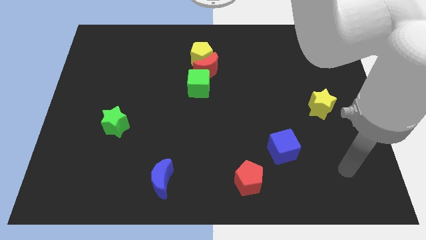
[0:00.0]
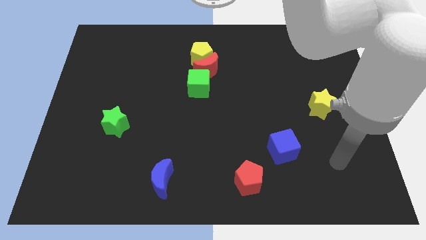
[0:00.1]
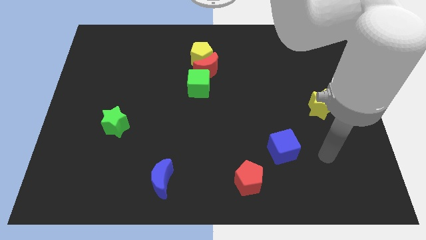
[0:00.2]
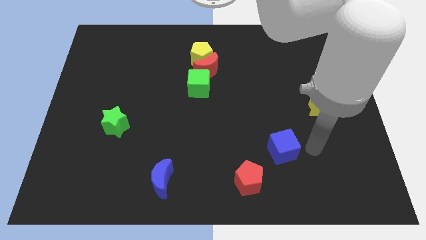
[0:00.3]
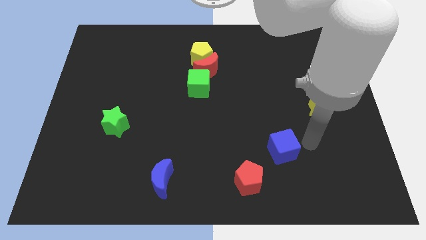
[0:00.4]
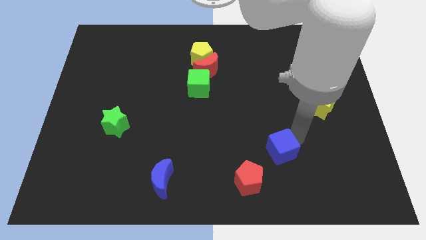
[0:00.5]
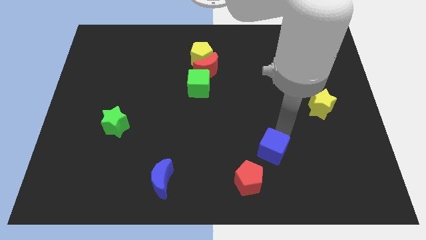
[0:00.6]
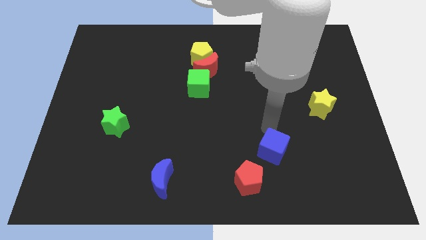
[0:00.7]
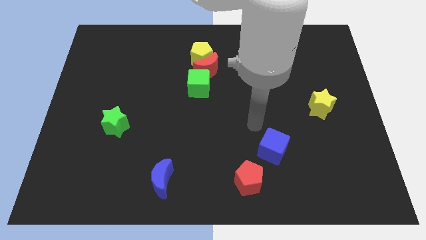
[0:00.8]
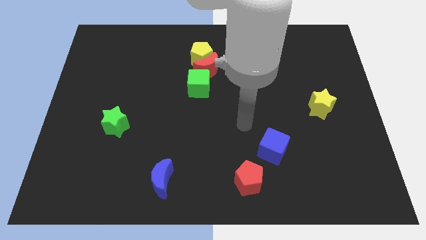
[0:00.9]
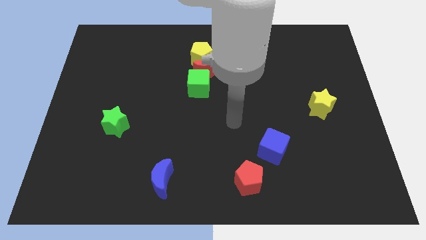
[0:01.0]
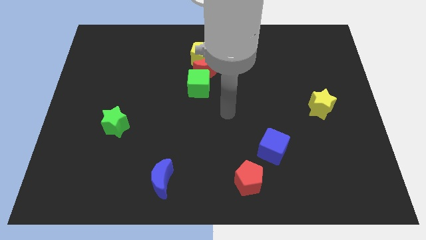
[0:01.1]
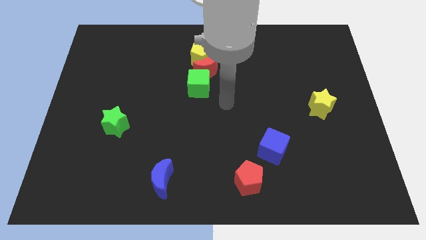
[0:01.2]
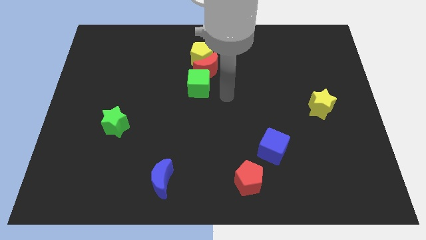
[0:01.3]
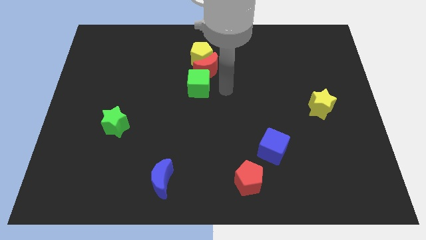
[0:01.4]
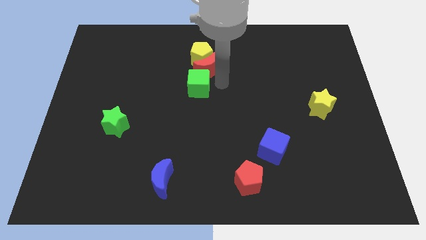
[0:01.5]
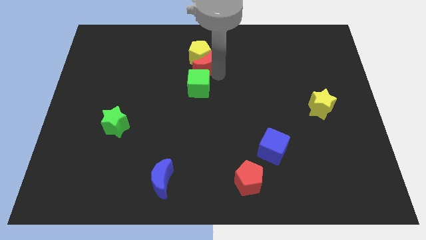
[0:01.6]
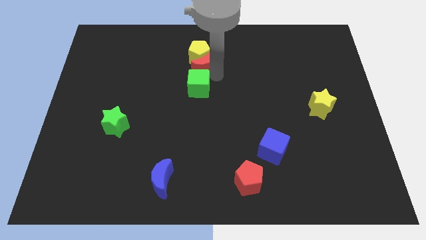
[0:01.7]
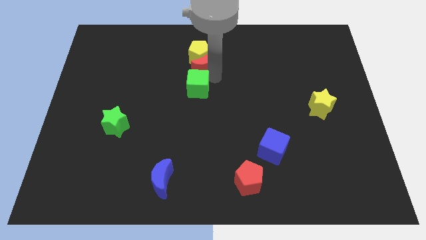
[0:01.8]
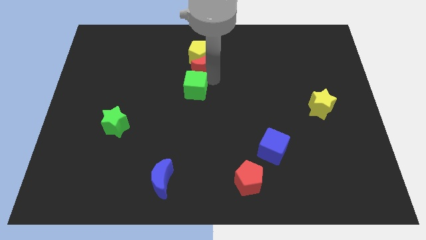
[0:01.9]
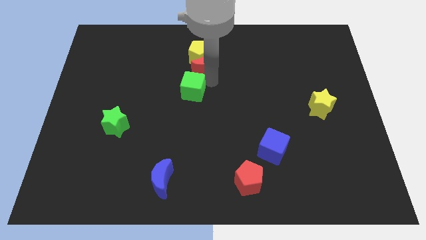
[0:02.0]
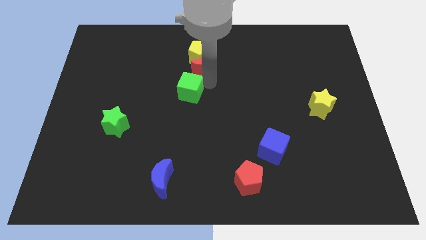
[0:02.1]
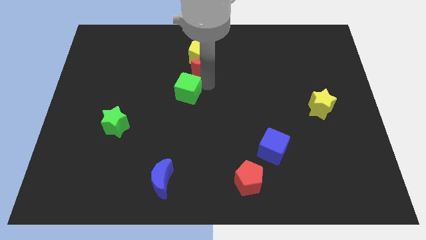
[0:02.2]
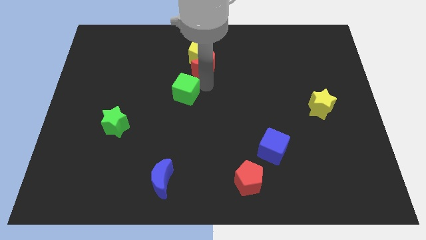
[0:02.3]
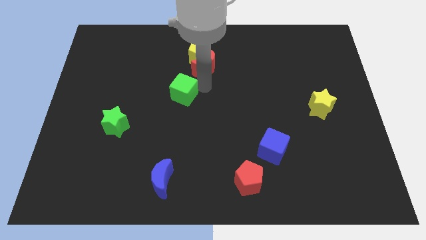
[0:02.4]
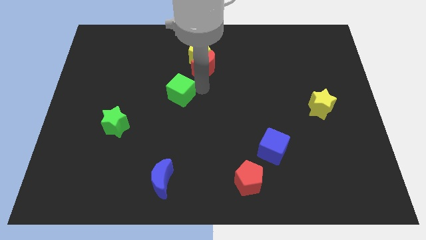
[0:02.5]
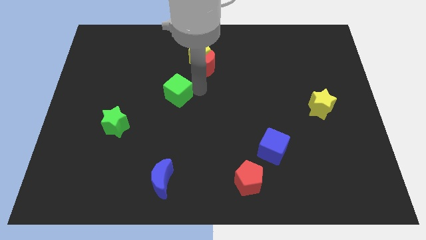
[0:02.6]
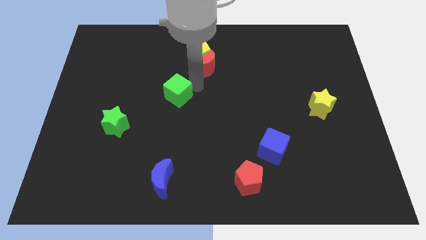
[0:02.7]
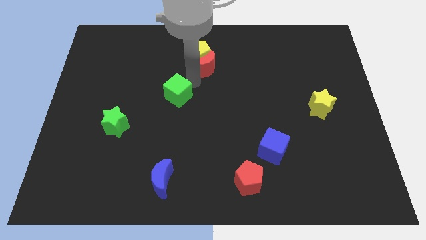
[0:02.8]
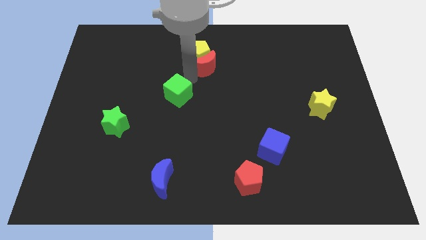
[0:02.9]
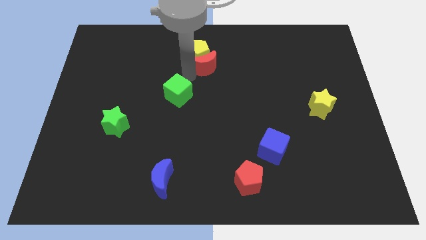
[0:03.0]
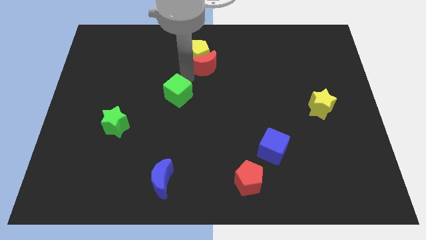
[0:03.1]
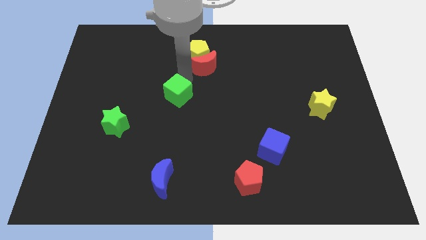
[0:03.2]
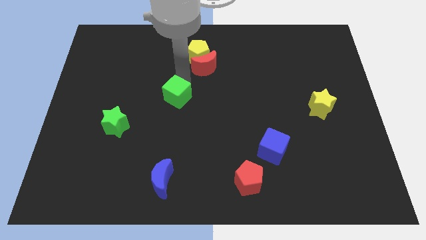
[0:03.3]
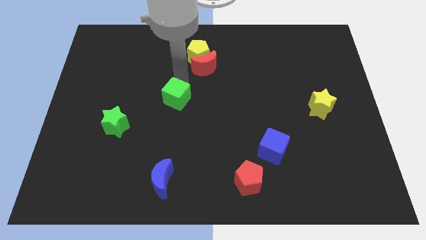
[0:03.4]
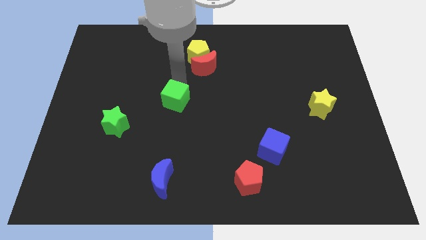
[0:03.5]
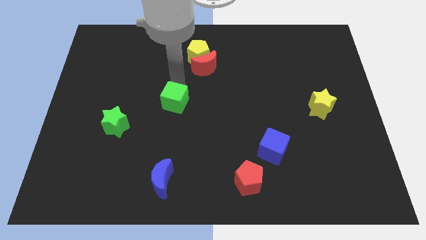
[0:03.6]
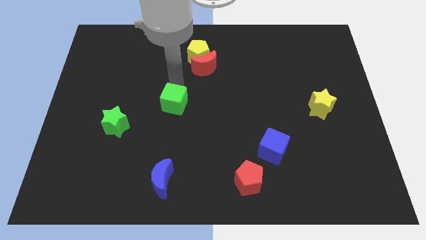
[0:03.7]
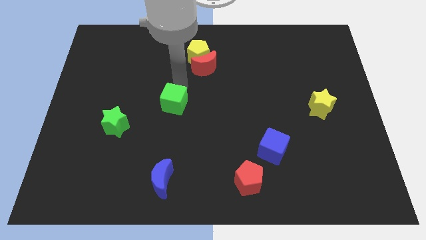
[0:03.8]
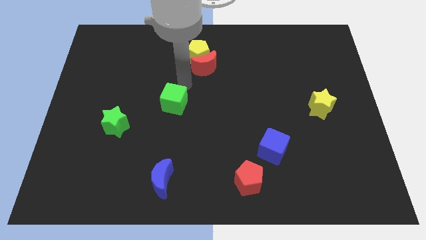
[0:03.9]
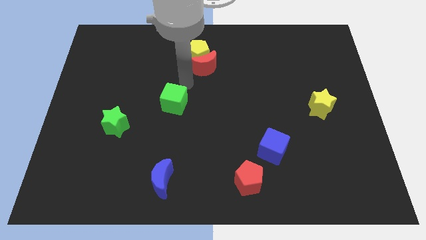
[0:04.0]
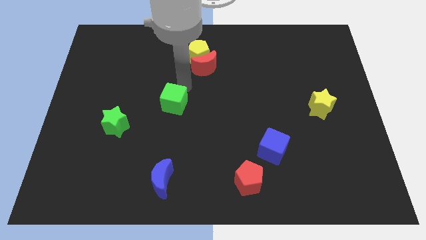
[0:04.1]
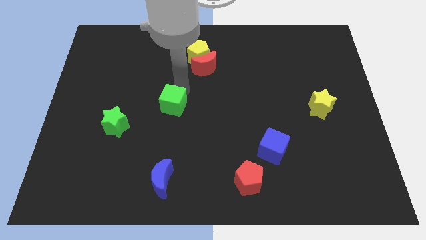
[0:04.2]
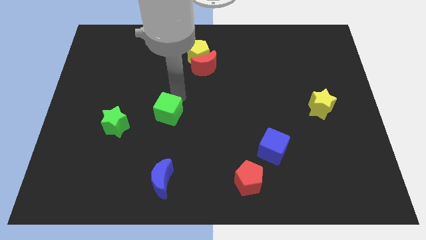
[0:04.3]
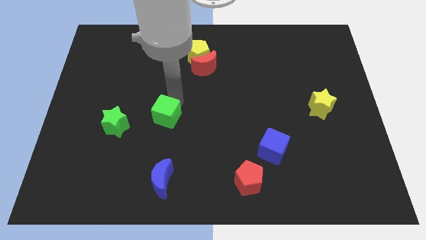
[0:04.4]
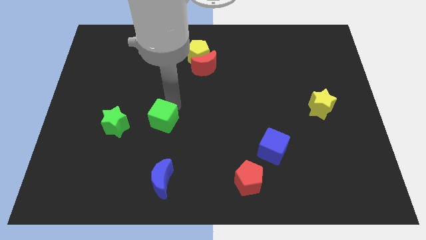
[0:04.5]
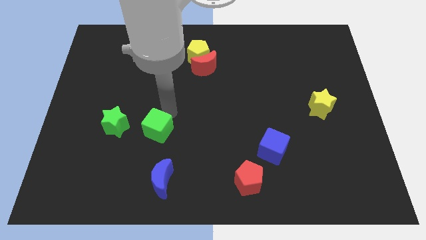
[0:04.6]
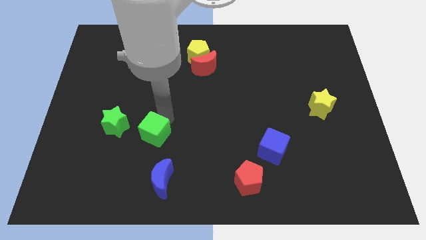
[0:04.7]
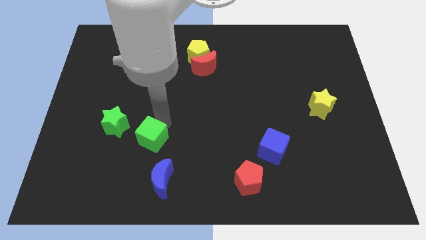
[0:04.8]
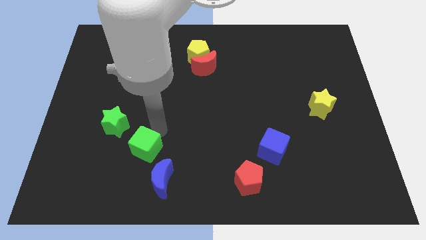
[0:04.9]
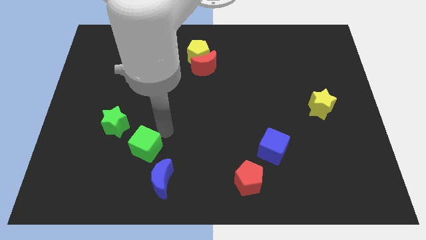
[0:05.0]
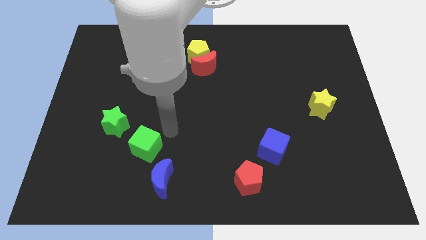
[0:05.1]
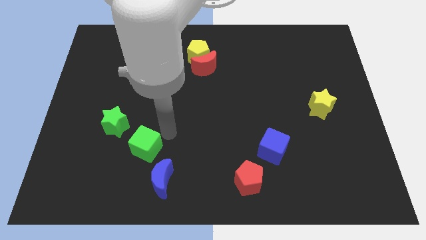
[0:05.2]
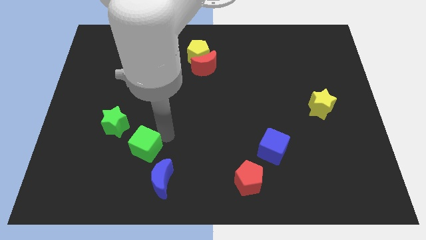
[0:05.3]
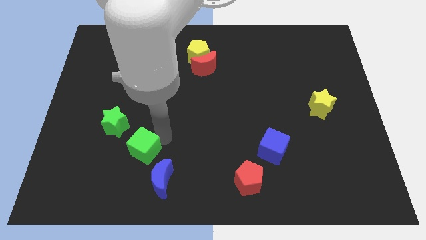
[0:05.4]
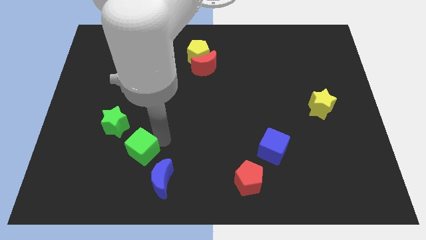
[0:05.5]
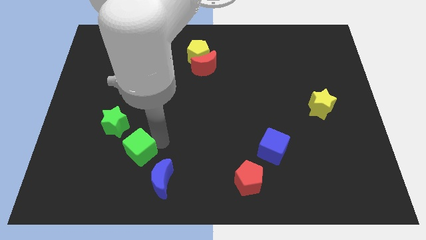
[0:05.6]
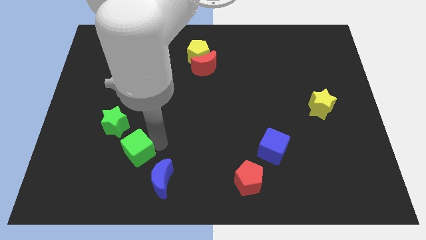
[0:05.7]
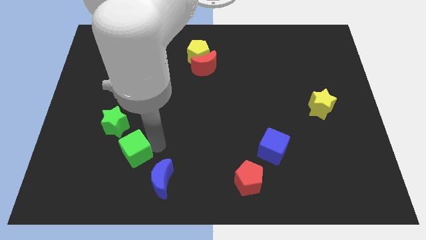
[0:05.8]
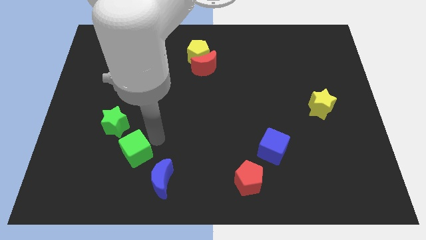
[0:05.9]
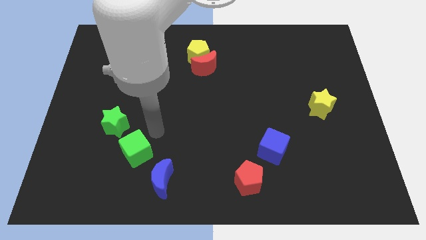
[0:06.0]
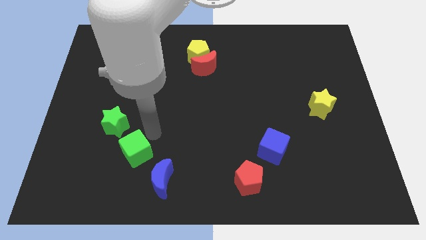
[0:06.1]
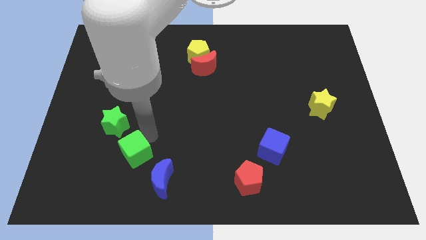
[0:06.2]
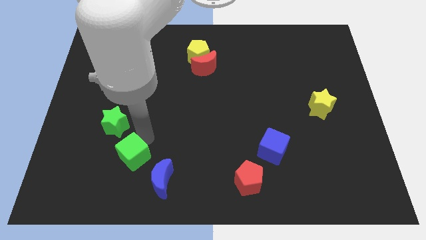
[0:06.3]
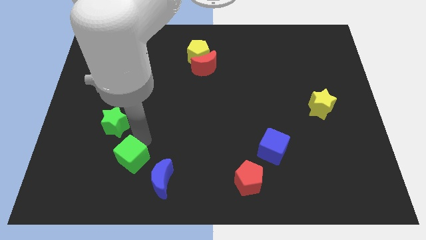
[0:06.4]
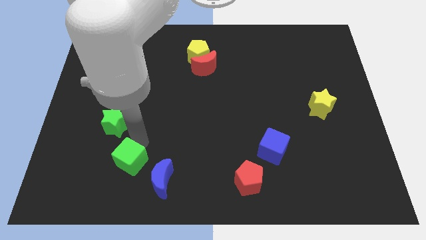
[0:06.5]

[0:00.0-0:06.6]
slide the green cube just left of the blue moon
